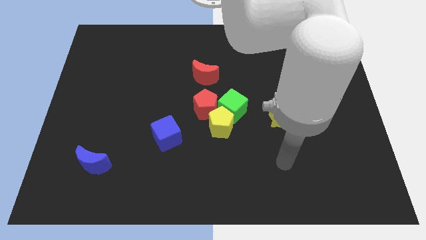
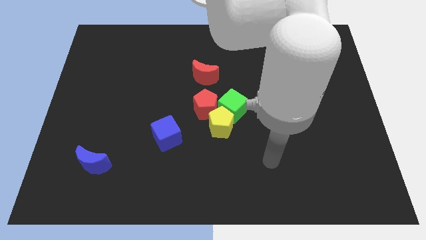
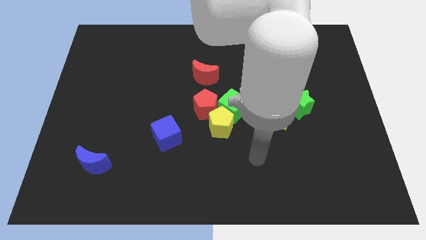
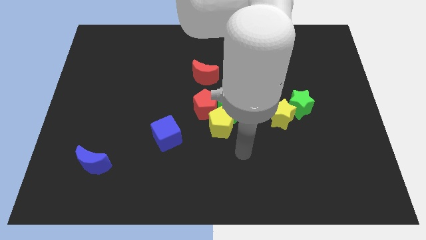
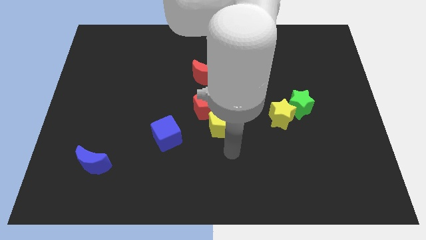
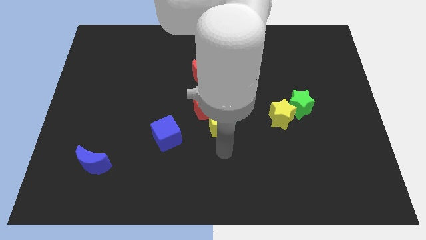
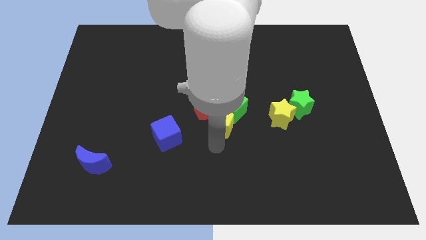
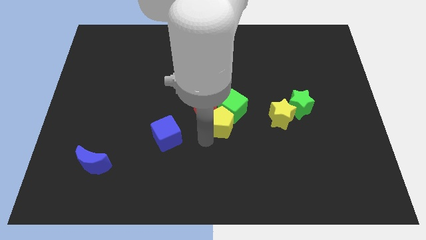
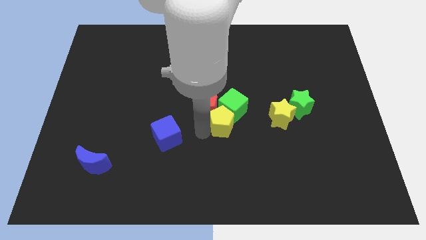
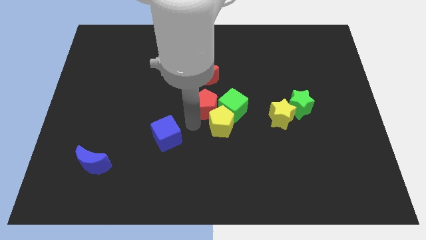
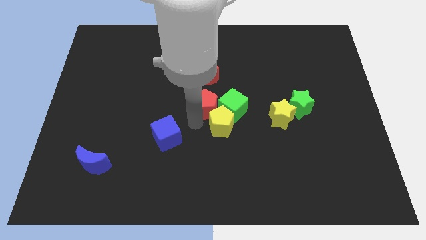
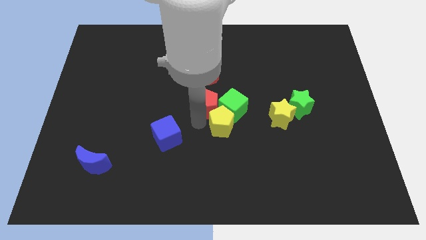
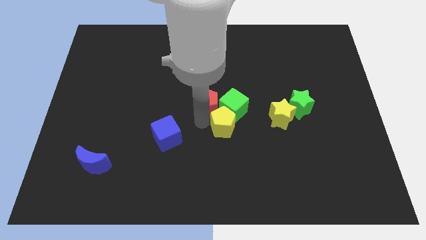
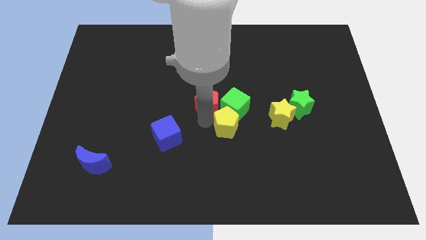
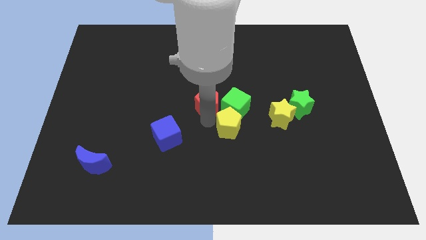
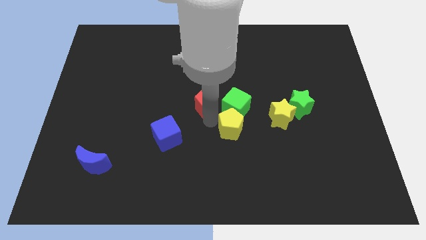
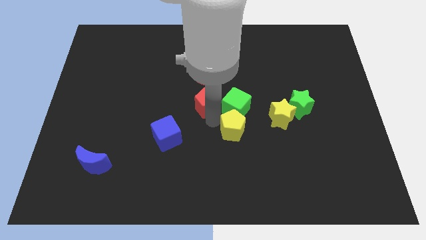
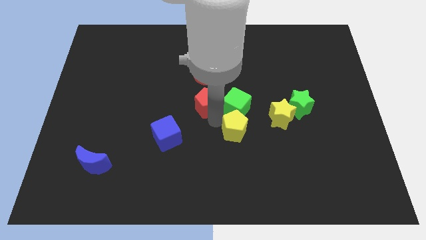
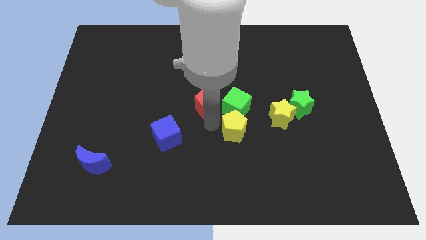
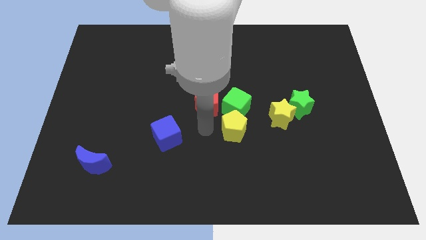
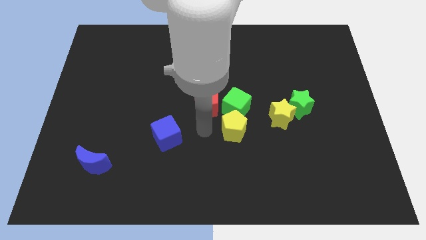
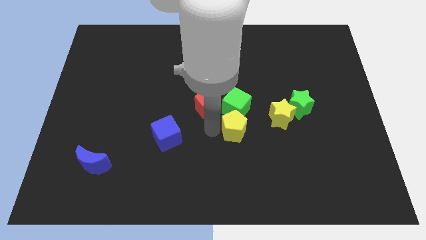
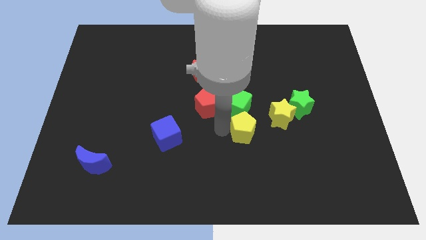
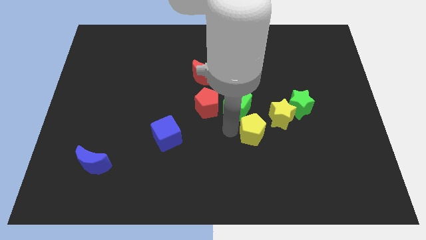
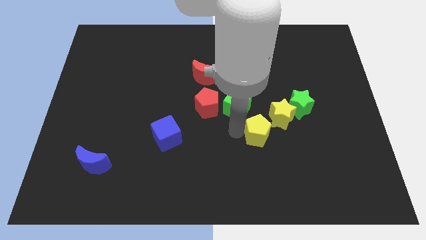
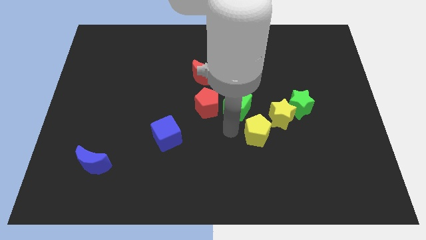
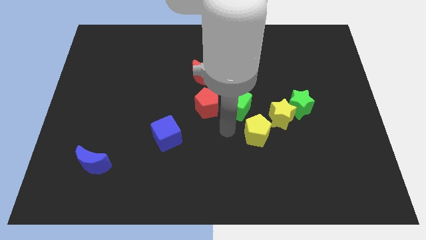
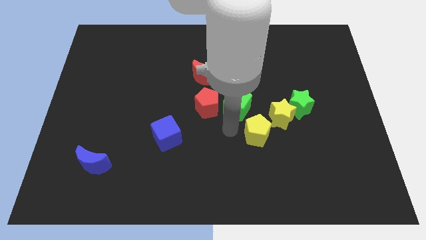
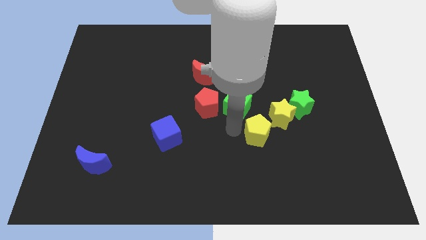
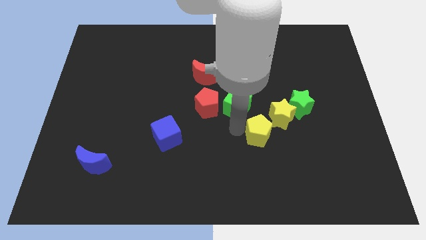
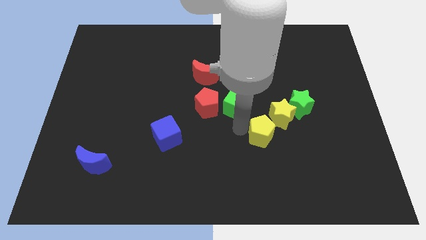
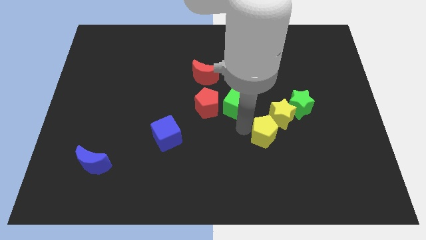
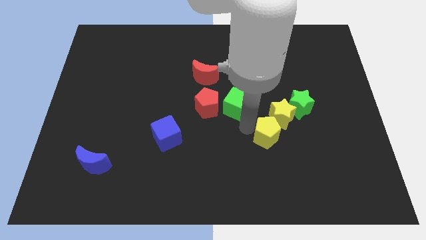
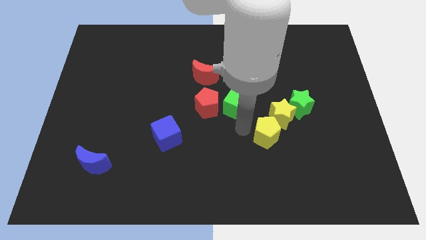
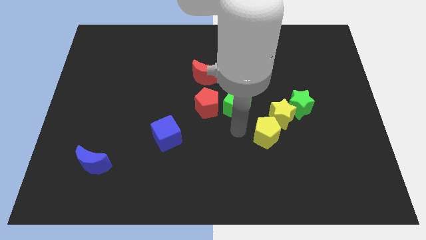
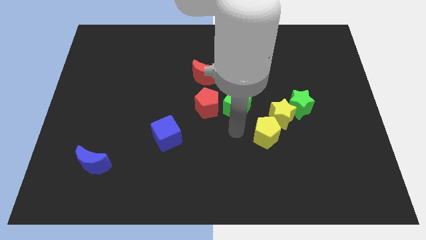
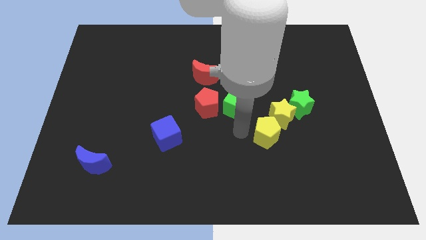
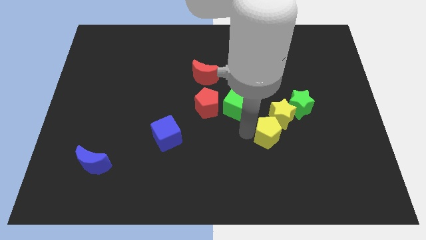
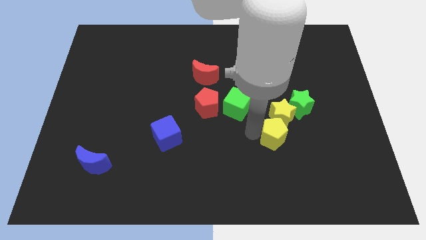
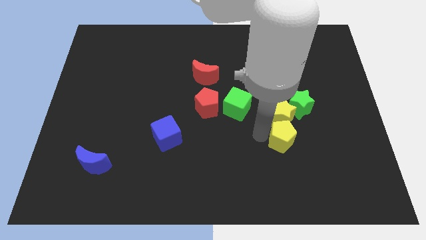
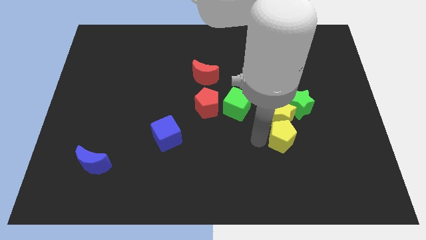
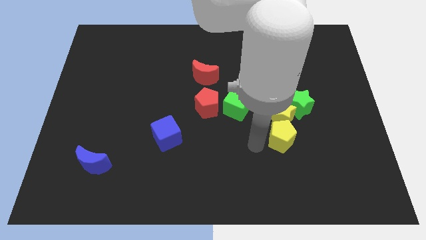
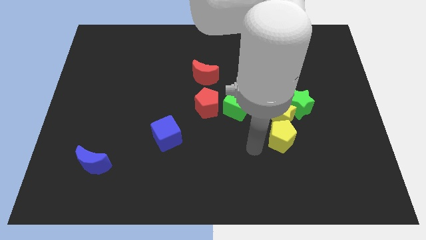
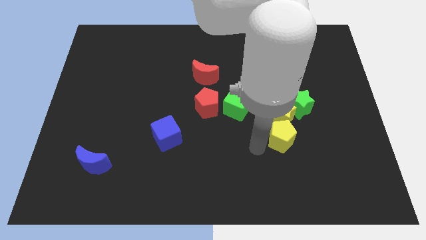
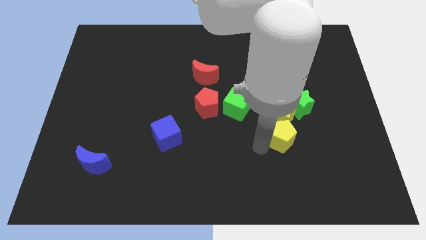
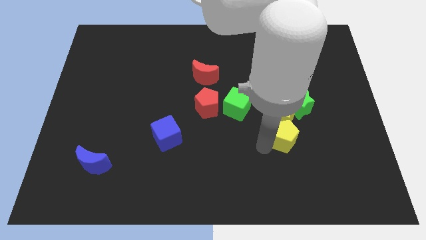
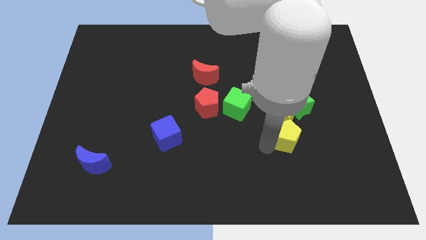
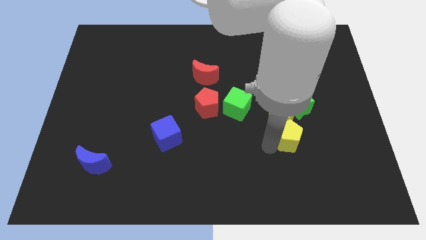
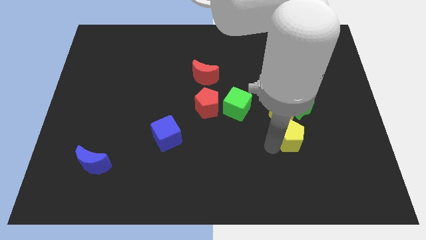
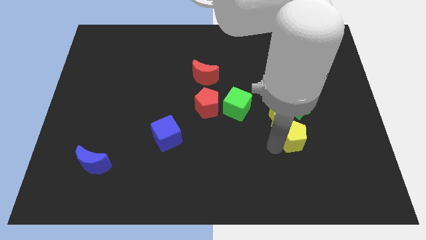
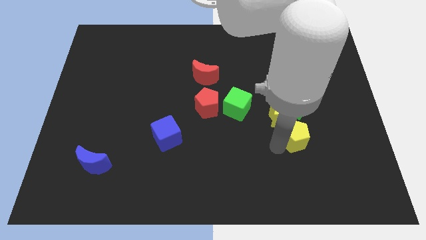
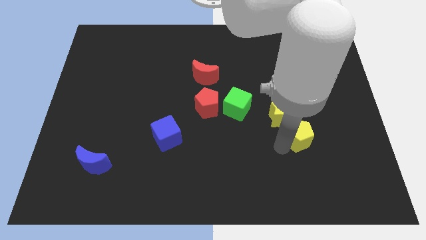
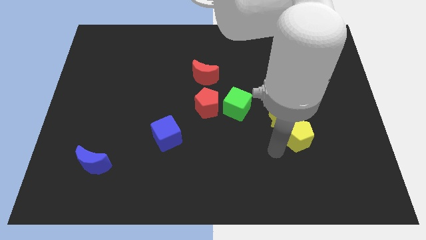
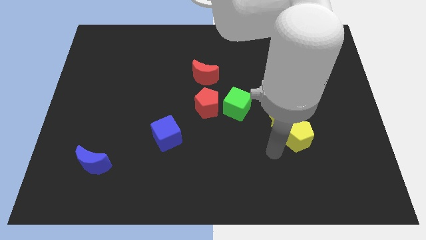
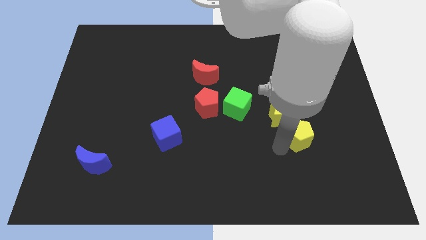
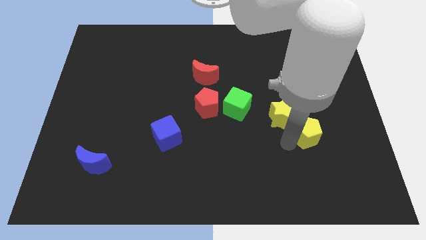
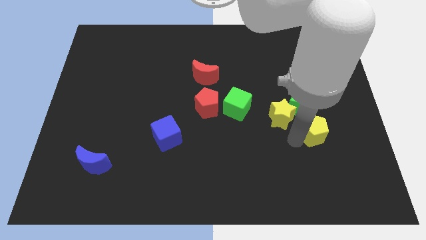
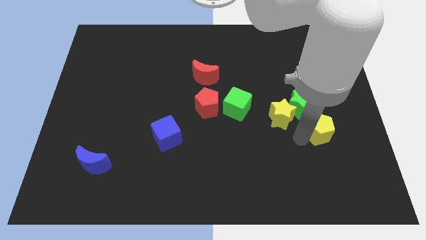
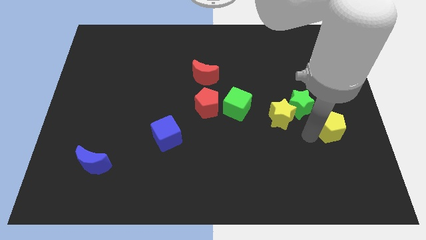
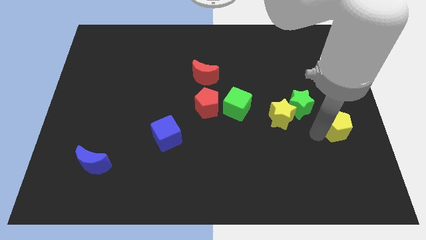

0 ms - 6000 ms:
push the yellow pentagon to the right side
